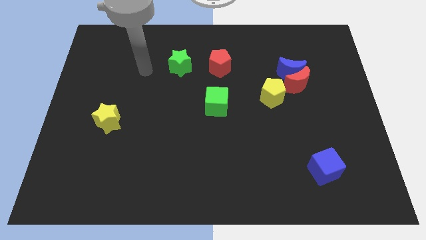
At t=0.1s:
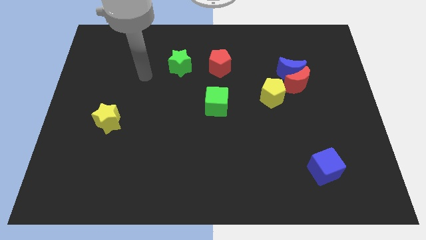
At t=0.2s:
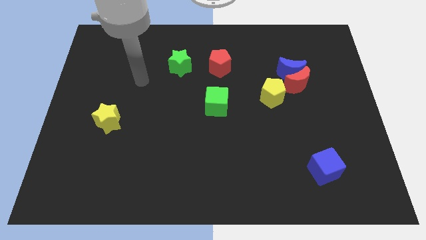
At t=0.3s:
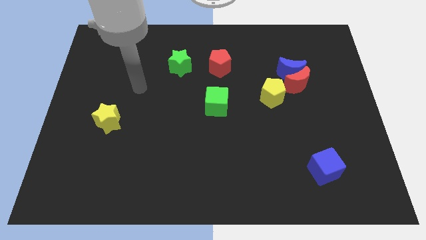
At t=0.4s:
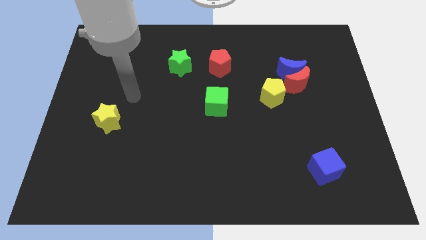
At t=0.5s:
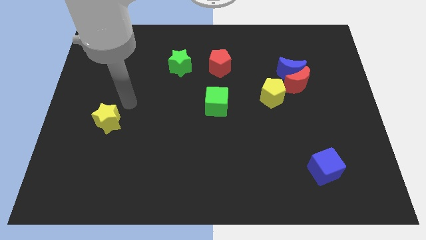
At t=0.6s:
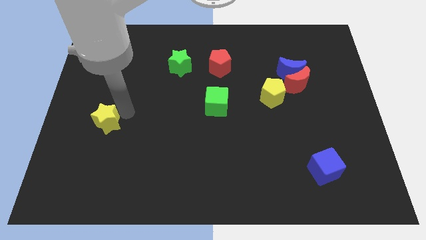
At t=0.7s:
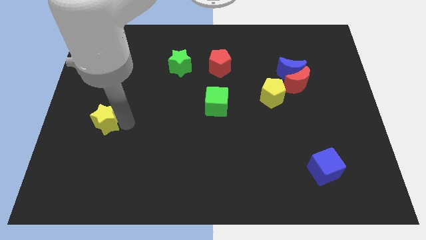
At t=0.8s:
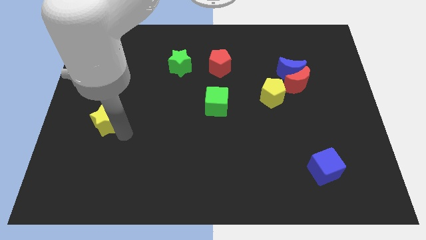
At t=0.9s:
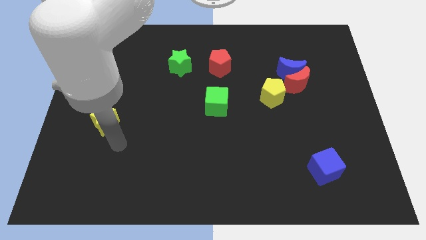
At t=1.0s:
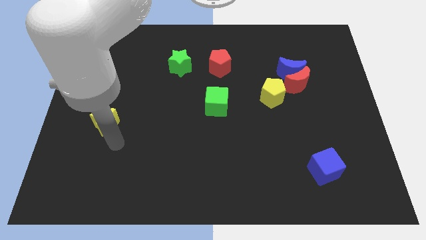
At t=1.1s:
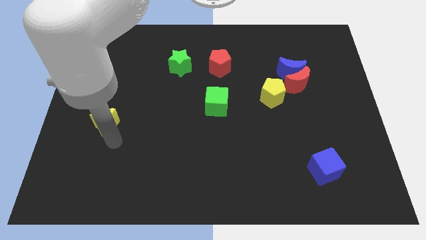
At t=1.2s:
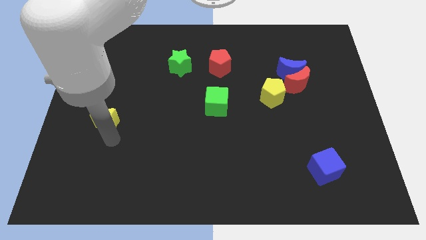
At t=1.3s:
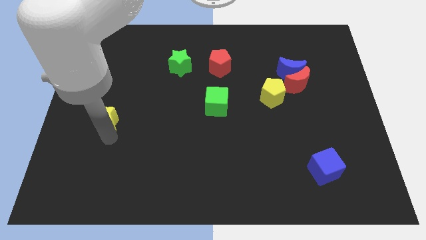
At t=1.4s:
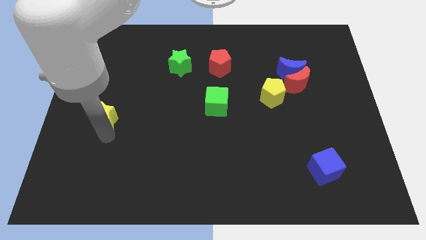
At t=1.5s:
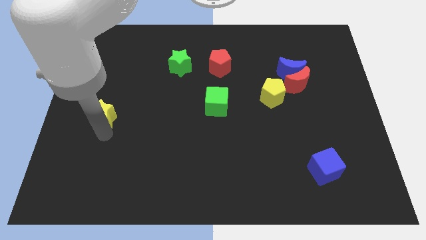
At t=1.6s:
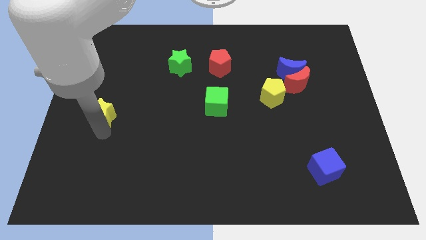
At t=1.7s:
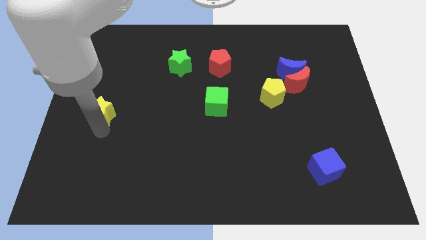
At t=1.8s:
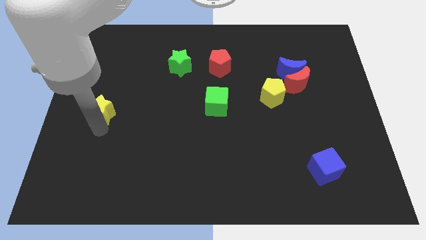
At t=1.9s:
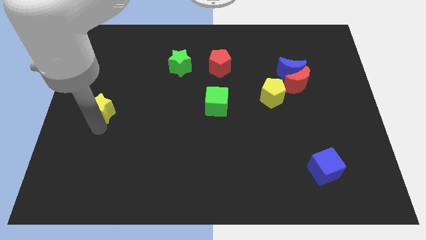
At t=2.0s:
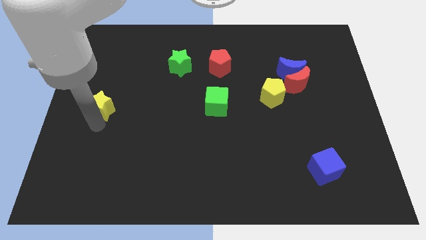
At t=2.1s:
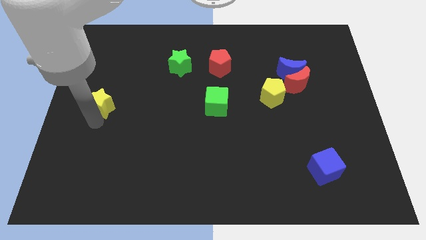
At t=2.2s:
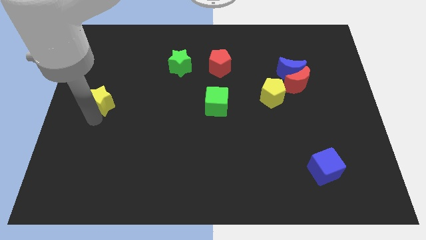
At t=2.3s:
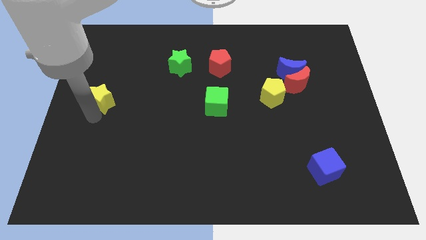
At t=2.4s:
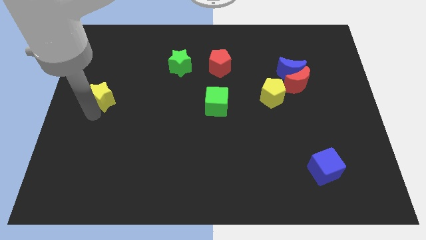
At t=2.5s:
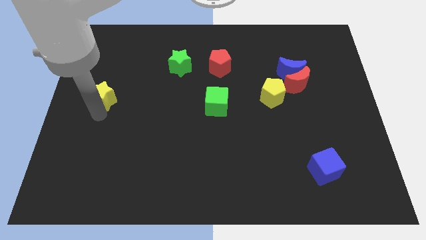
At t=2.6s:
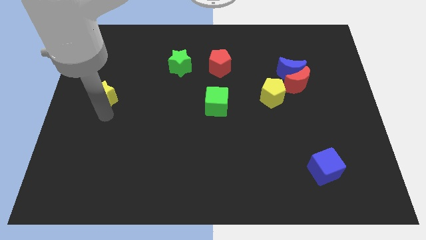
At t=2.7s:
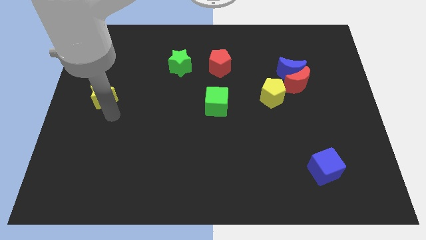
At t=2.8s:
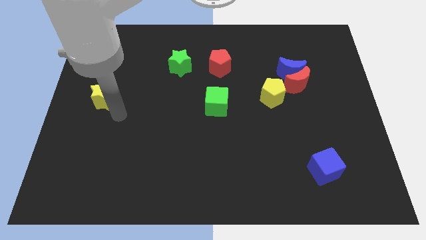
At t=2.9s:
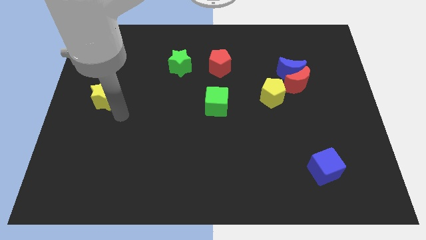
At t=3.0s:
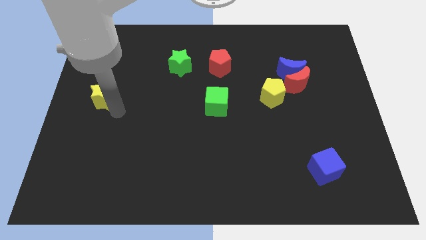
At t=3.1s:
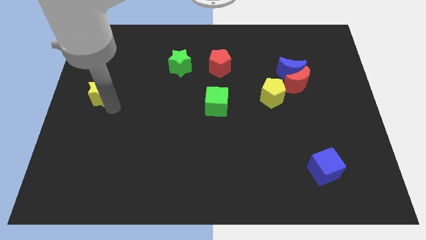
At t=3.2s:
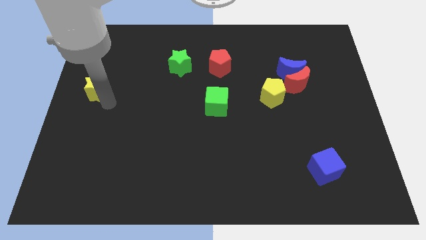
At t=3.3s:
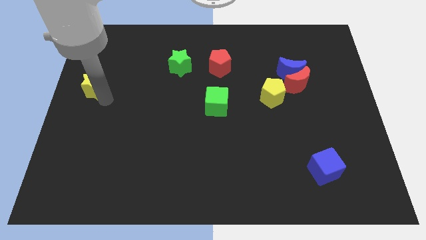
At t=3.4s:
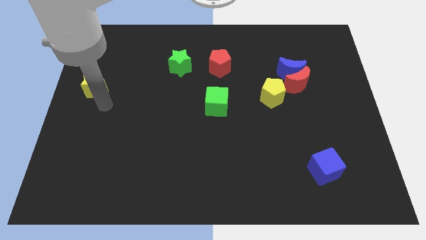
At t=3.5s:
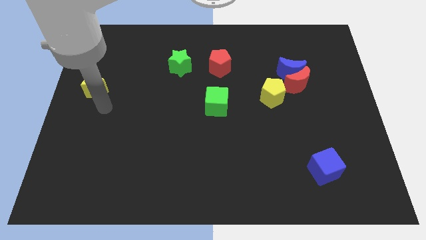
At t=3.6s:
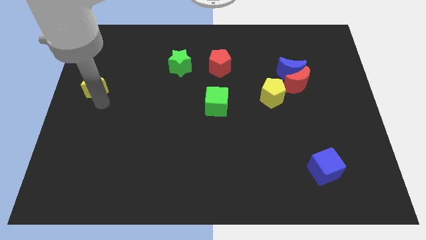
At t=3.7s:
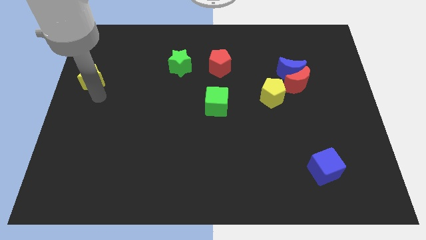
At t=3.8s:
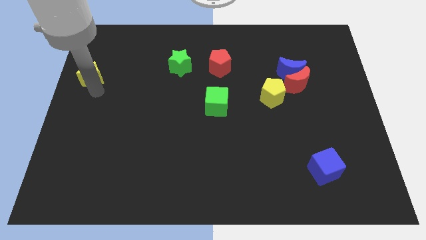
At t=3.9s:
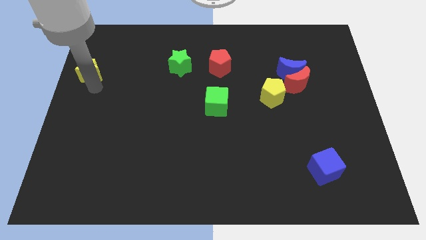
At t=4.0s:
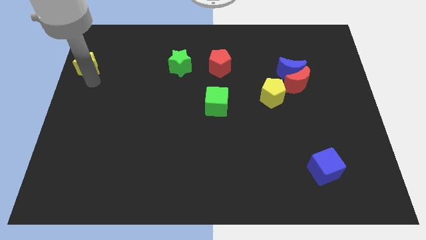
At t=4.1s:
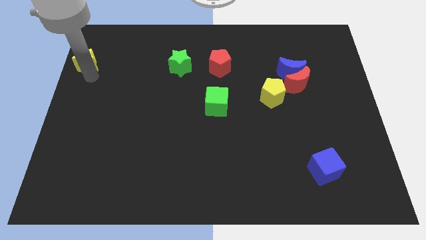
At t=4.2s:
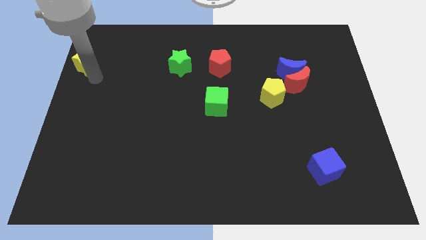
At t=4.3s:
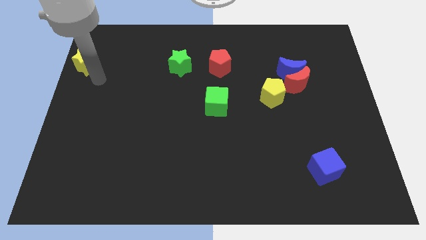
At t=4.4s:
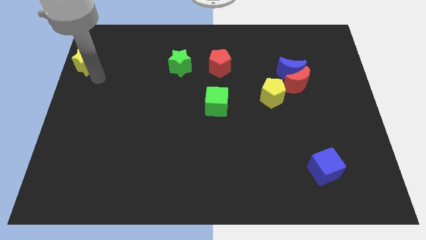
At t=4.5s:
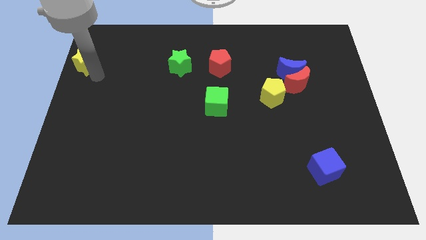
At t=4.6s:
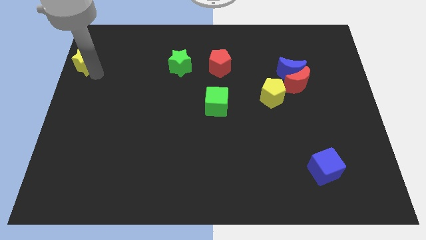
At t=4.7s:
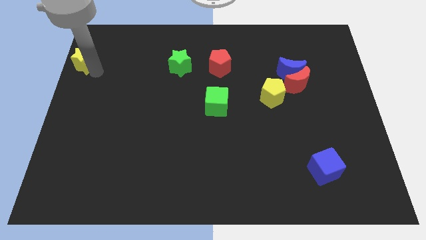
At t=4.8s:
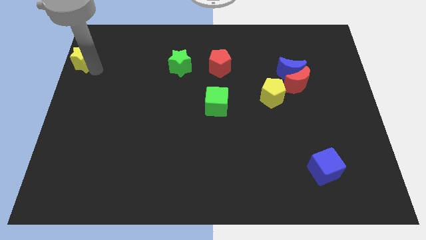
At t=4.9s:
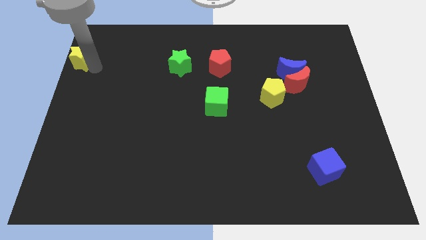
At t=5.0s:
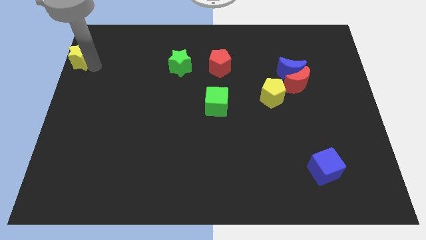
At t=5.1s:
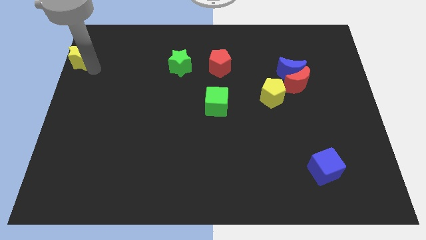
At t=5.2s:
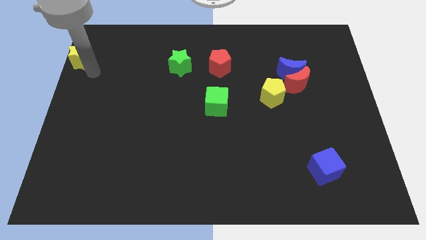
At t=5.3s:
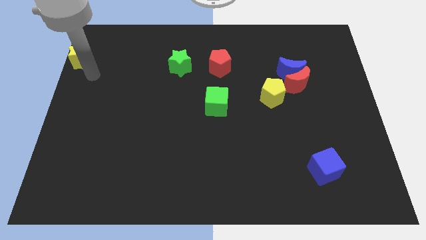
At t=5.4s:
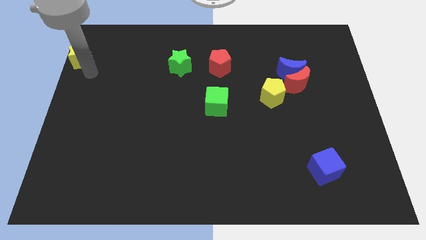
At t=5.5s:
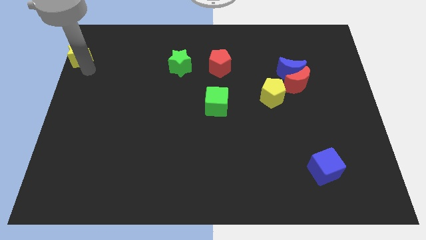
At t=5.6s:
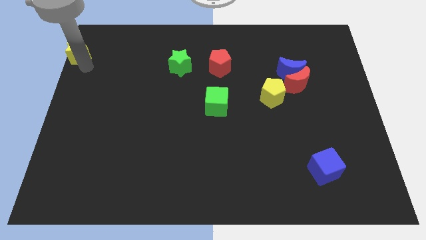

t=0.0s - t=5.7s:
move the yellow star to the top left

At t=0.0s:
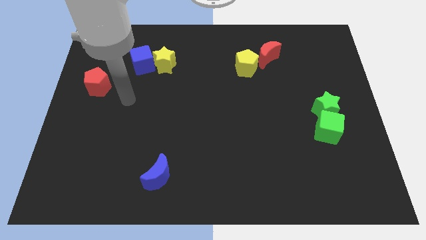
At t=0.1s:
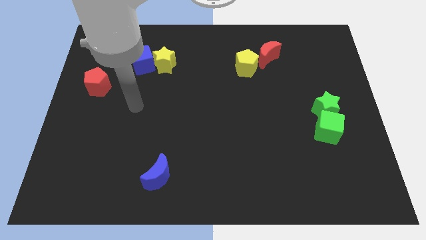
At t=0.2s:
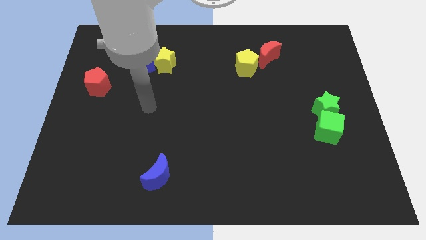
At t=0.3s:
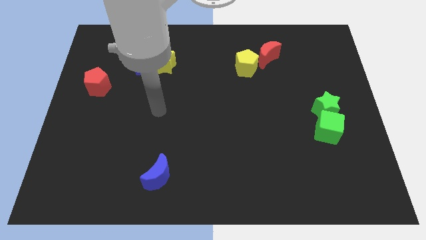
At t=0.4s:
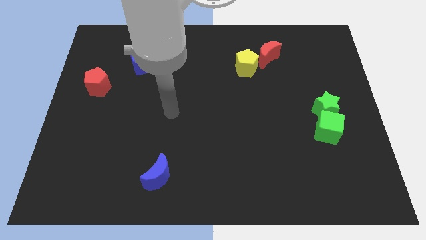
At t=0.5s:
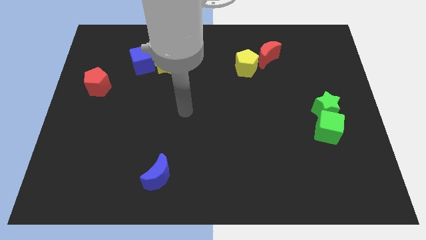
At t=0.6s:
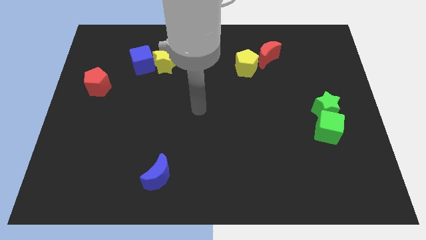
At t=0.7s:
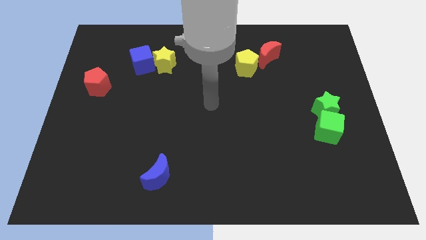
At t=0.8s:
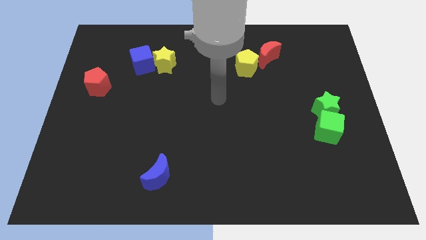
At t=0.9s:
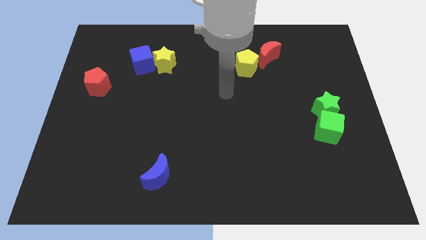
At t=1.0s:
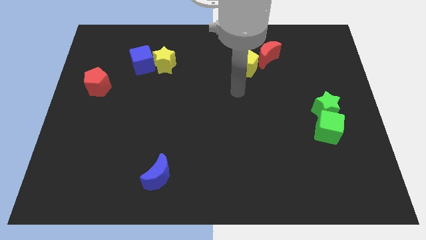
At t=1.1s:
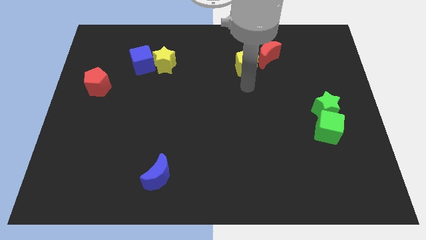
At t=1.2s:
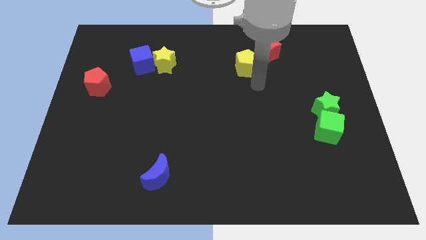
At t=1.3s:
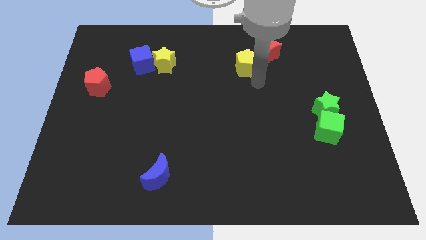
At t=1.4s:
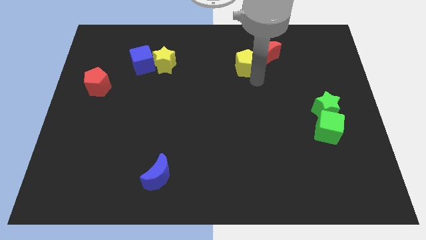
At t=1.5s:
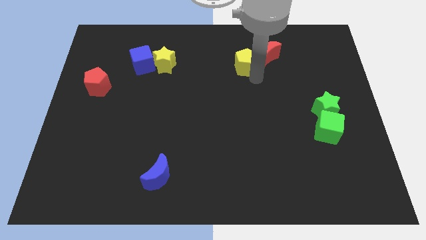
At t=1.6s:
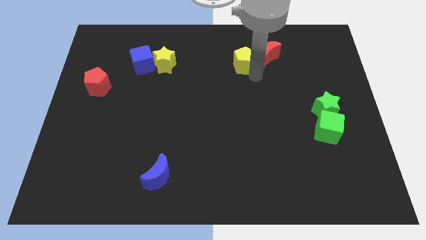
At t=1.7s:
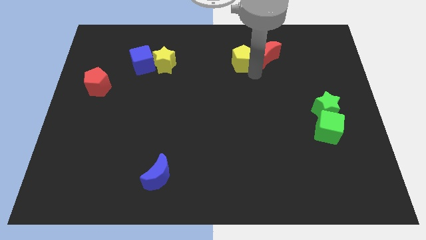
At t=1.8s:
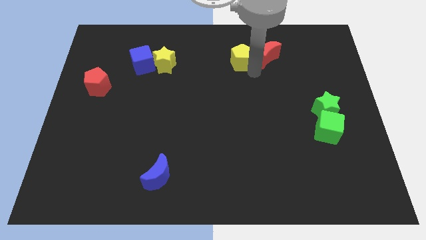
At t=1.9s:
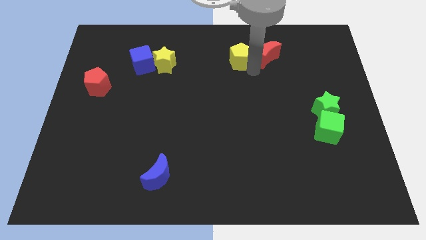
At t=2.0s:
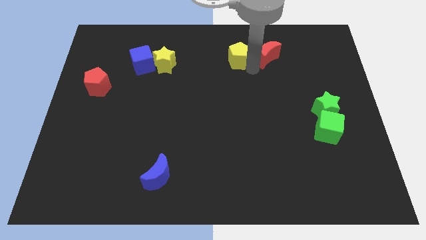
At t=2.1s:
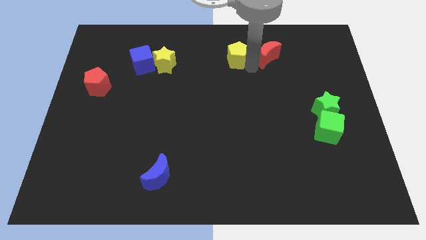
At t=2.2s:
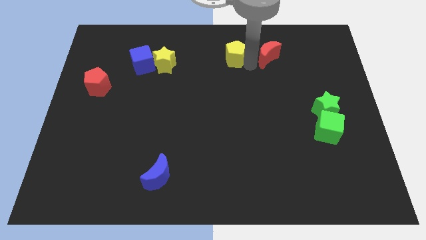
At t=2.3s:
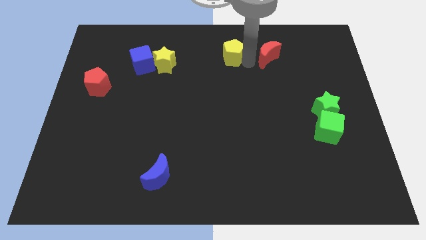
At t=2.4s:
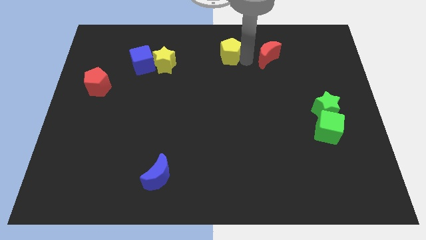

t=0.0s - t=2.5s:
slide the yellow pentagon to the top side
